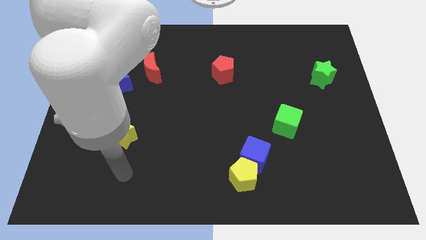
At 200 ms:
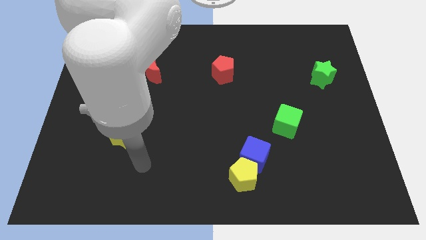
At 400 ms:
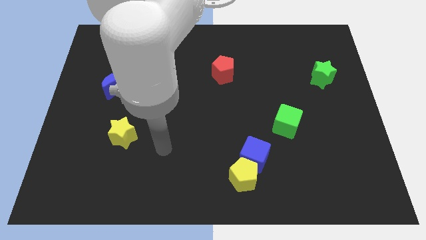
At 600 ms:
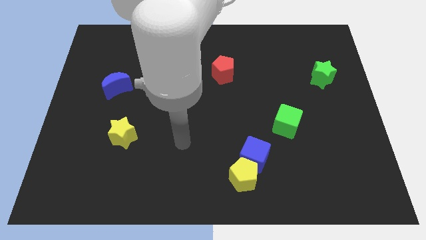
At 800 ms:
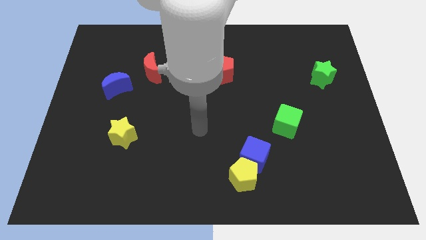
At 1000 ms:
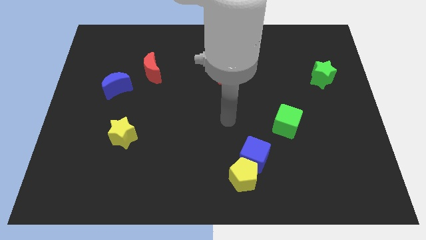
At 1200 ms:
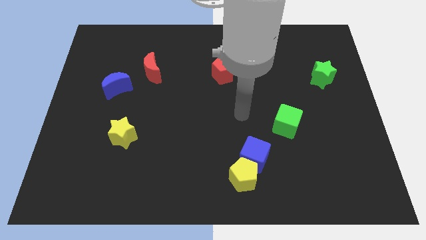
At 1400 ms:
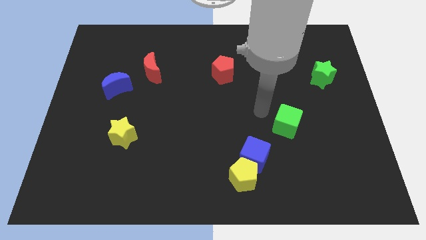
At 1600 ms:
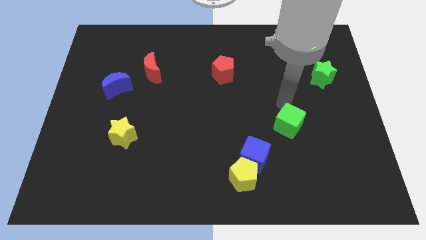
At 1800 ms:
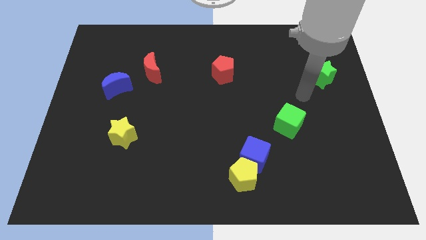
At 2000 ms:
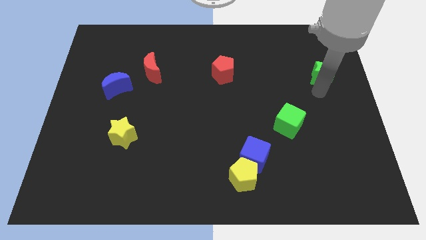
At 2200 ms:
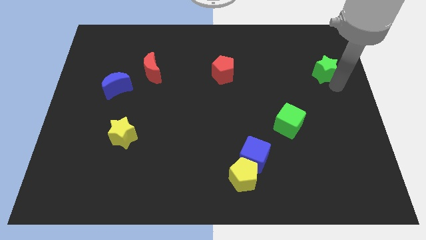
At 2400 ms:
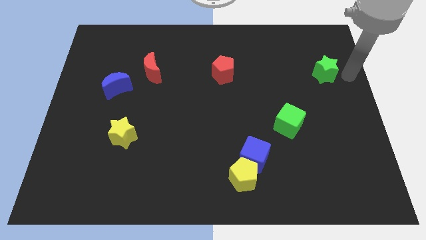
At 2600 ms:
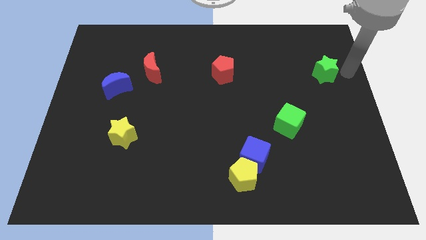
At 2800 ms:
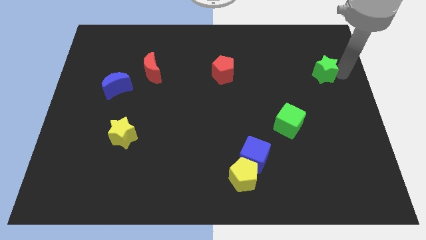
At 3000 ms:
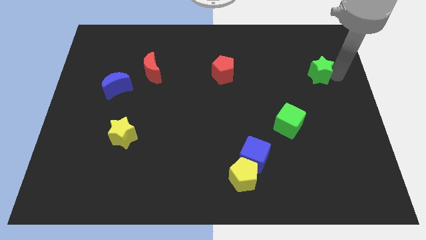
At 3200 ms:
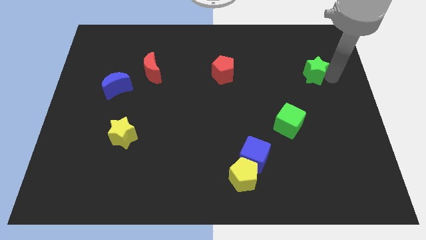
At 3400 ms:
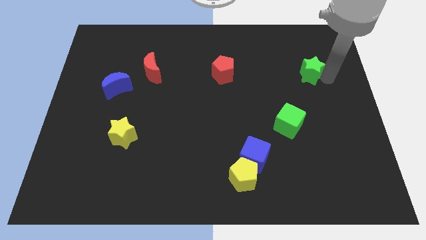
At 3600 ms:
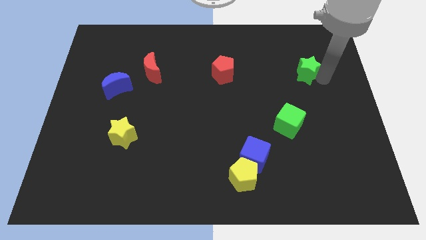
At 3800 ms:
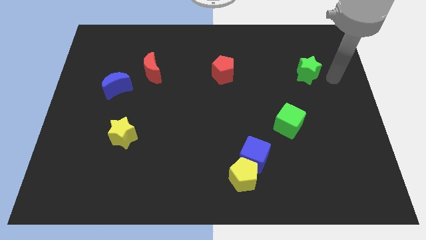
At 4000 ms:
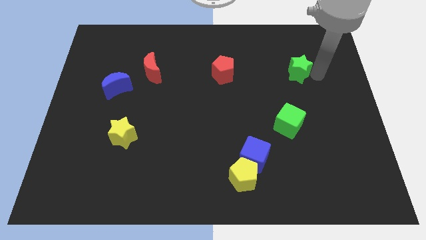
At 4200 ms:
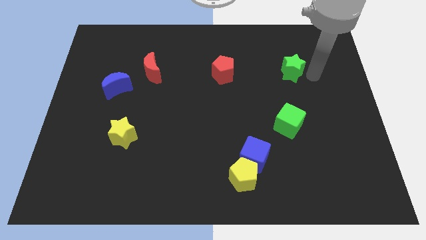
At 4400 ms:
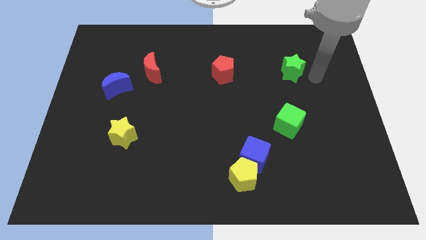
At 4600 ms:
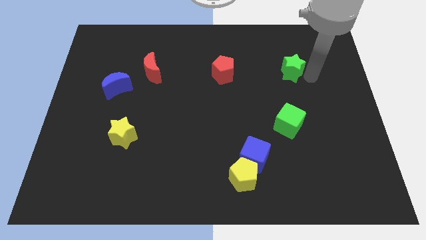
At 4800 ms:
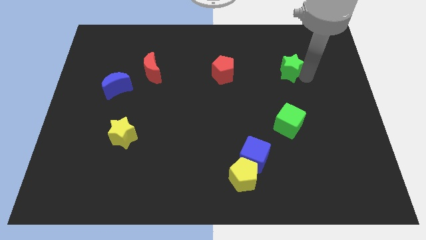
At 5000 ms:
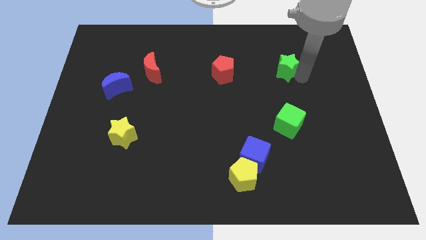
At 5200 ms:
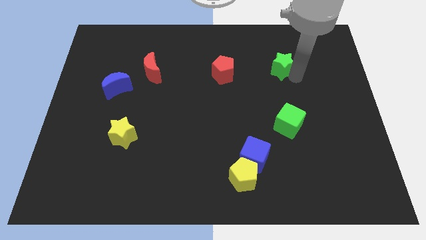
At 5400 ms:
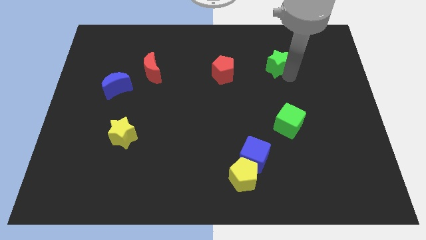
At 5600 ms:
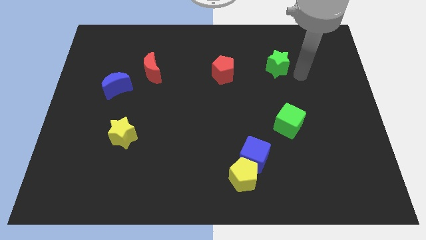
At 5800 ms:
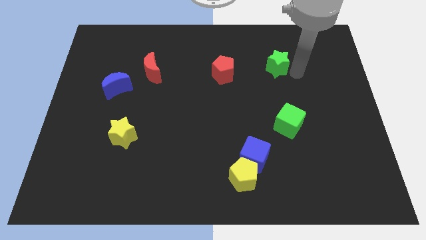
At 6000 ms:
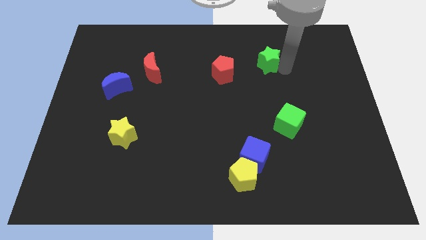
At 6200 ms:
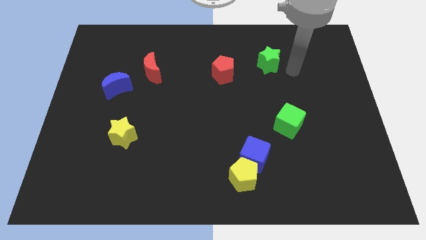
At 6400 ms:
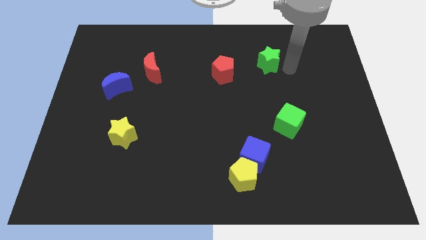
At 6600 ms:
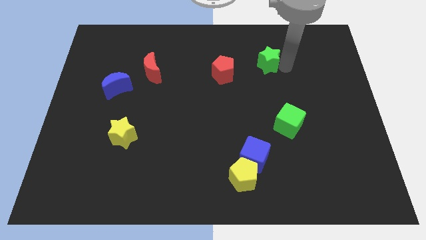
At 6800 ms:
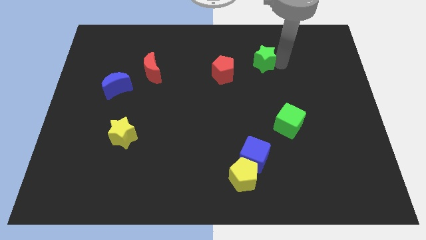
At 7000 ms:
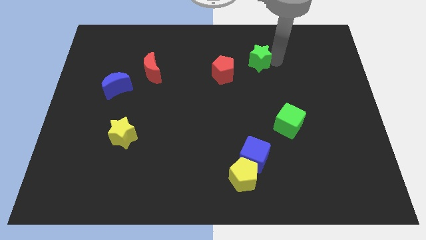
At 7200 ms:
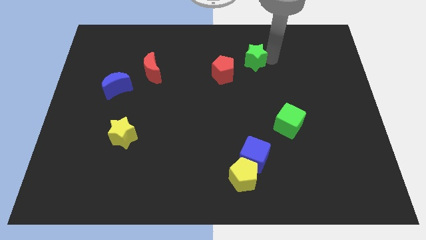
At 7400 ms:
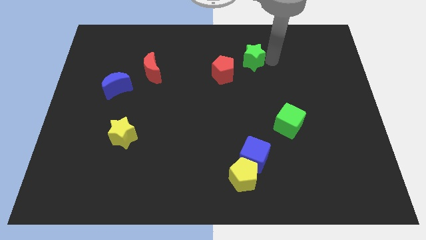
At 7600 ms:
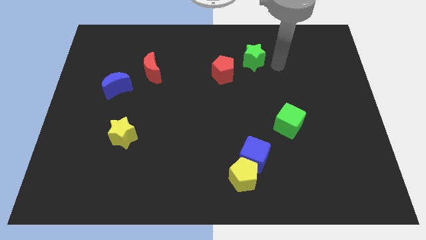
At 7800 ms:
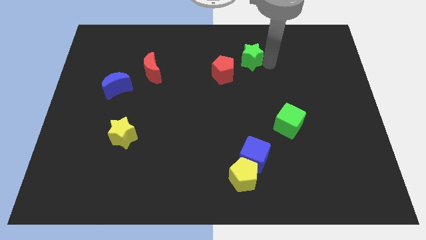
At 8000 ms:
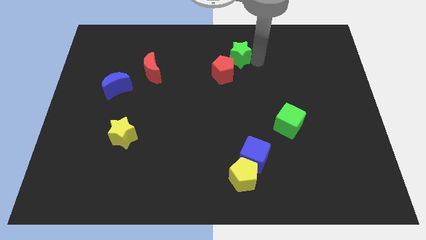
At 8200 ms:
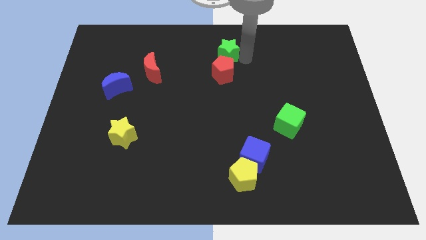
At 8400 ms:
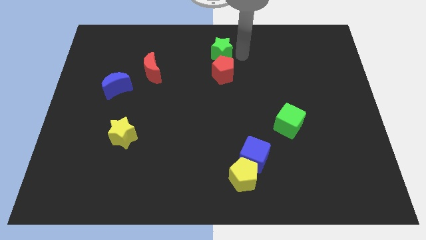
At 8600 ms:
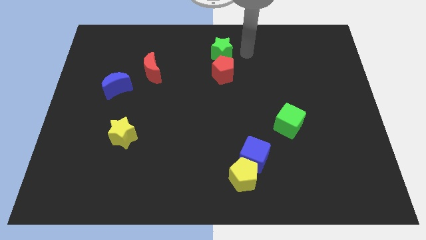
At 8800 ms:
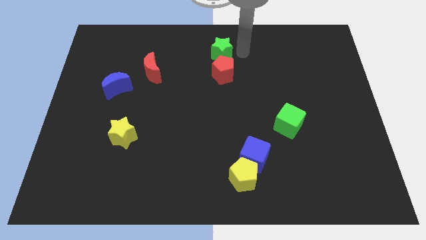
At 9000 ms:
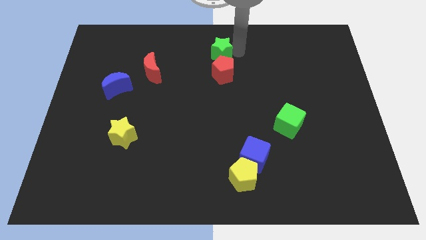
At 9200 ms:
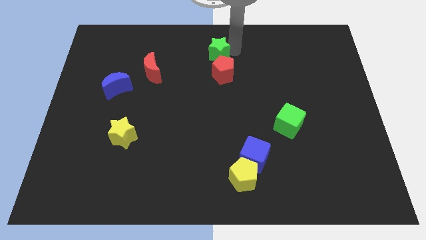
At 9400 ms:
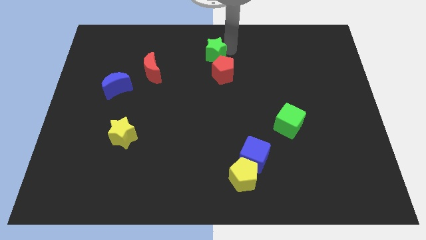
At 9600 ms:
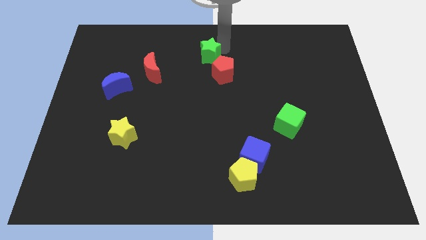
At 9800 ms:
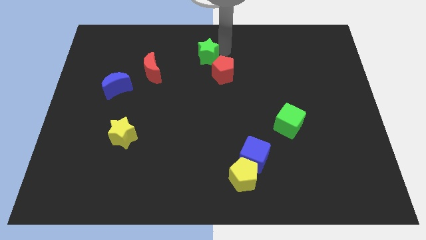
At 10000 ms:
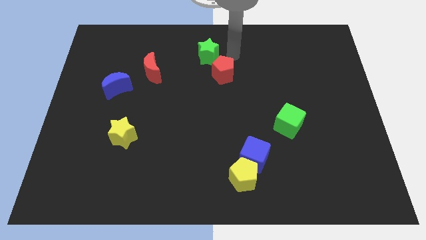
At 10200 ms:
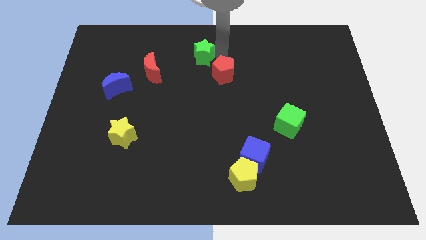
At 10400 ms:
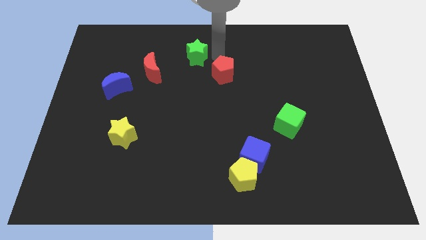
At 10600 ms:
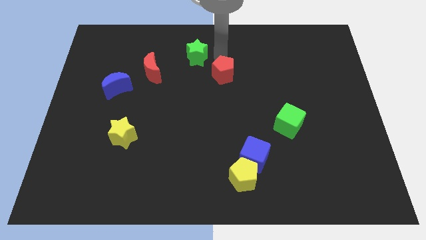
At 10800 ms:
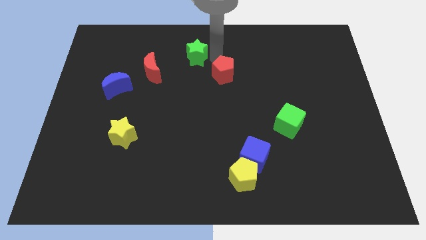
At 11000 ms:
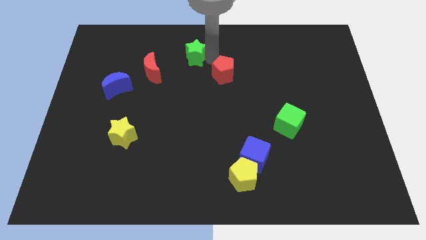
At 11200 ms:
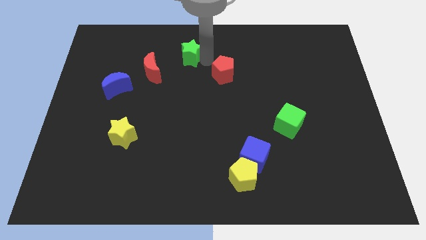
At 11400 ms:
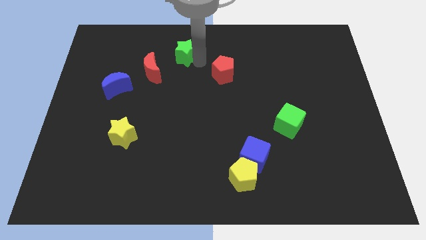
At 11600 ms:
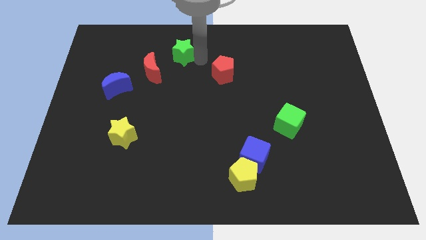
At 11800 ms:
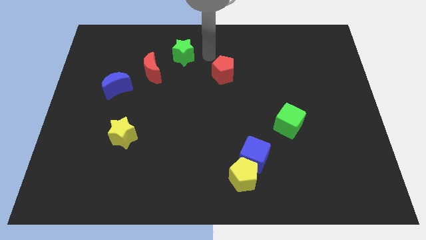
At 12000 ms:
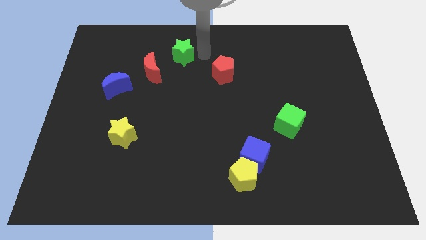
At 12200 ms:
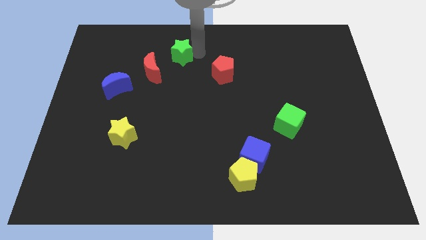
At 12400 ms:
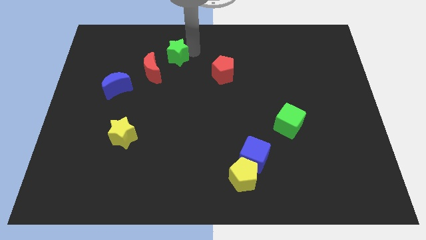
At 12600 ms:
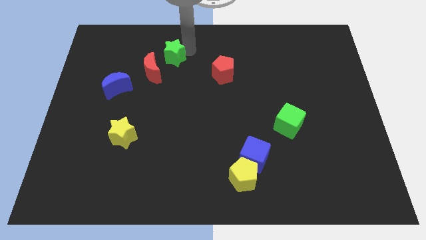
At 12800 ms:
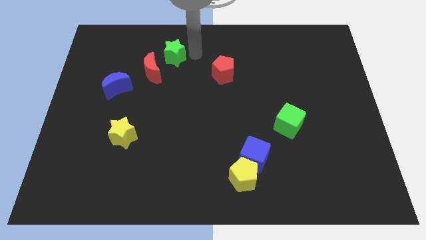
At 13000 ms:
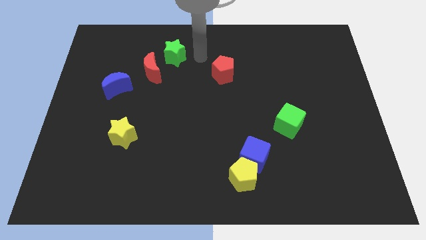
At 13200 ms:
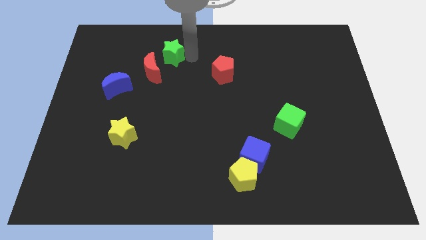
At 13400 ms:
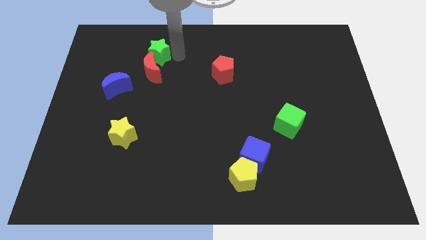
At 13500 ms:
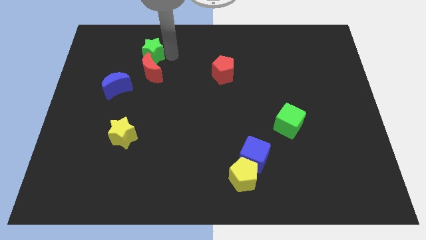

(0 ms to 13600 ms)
move the green star to the top left side of the red moon
